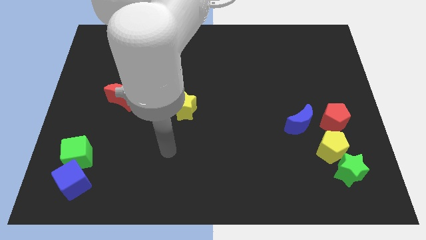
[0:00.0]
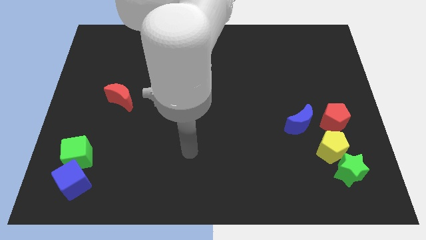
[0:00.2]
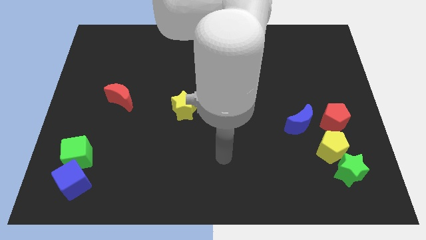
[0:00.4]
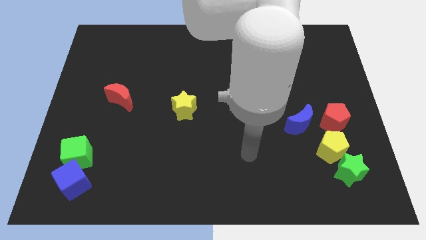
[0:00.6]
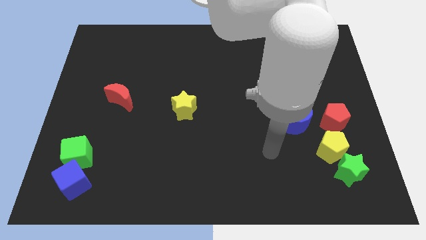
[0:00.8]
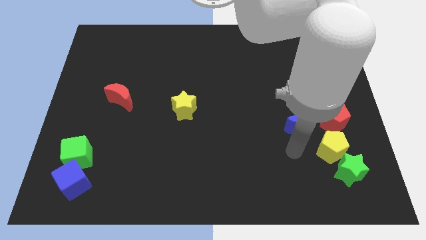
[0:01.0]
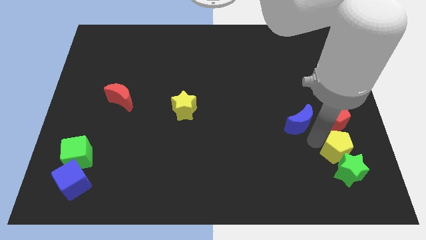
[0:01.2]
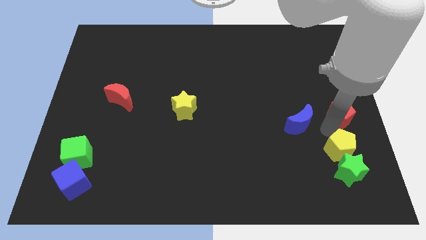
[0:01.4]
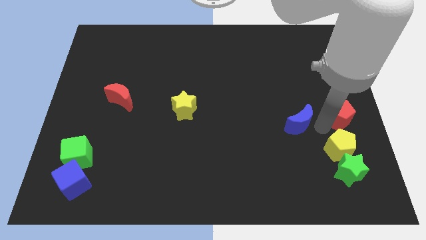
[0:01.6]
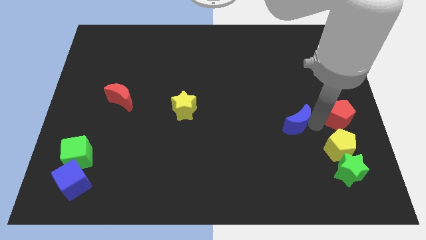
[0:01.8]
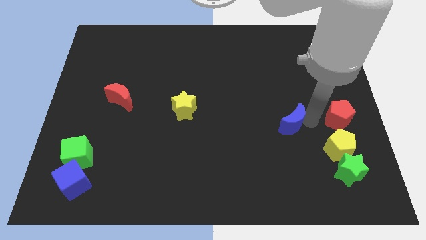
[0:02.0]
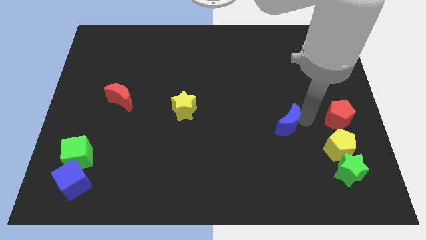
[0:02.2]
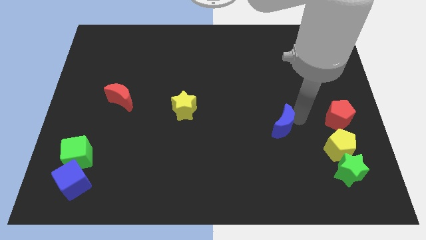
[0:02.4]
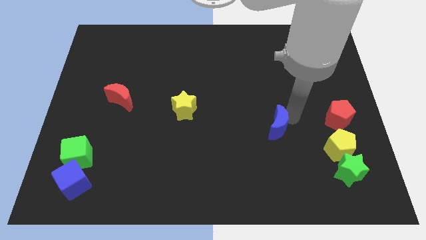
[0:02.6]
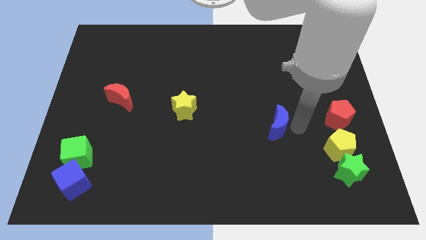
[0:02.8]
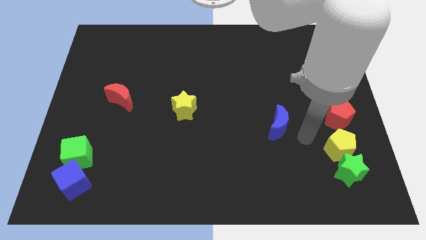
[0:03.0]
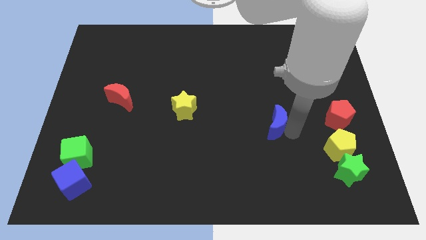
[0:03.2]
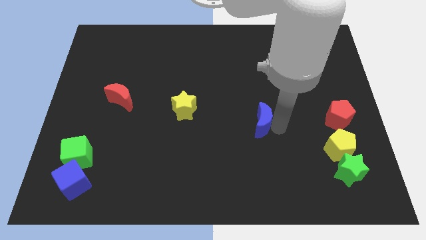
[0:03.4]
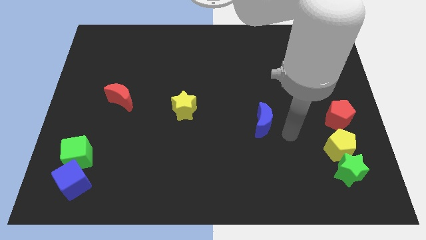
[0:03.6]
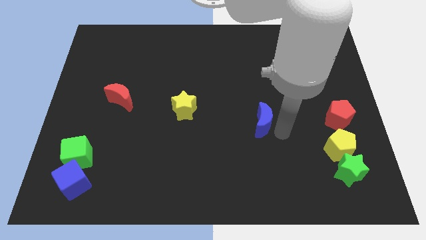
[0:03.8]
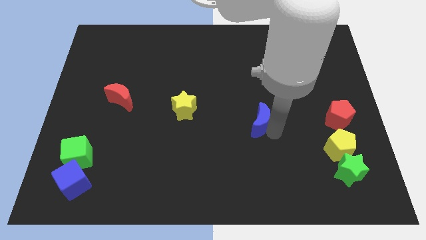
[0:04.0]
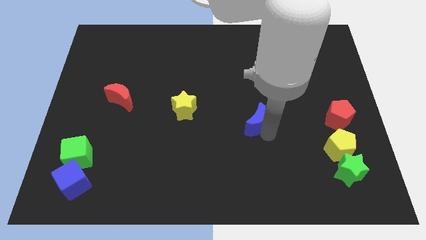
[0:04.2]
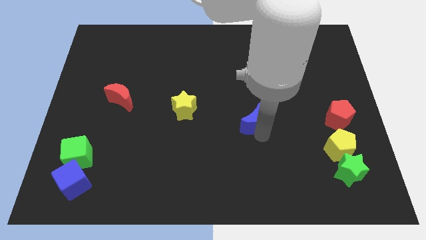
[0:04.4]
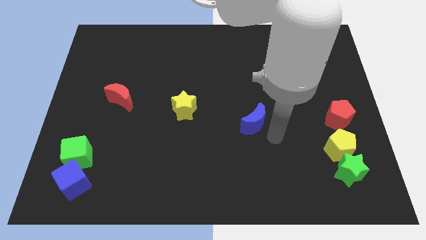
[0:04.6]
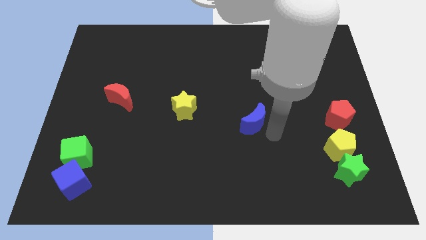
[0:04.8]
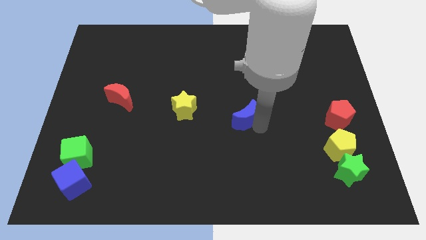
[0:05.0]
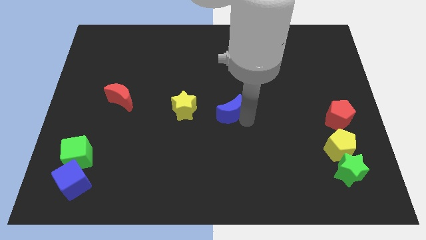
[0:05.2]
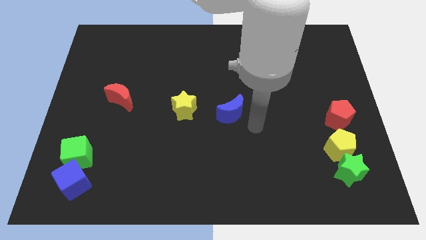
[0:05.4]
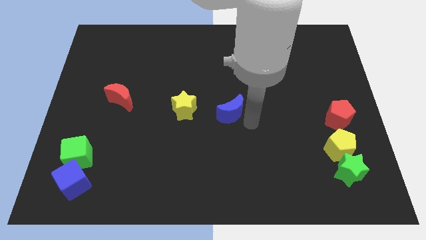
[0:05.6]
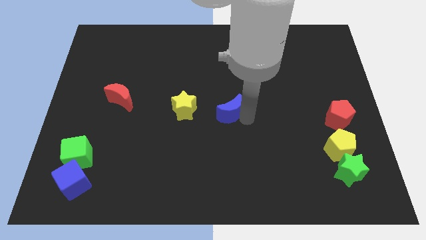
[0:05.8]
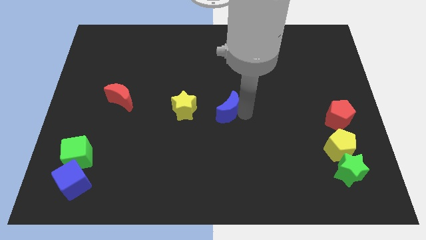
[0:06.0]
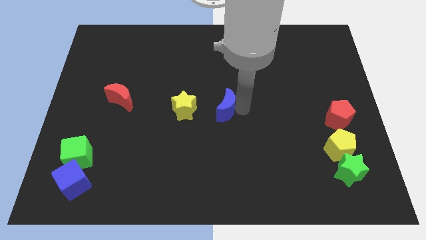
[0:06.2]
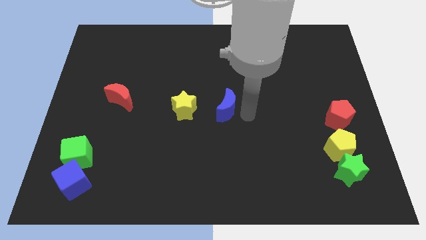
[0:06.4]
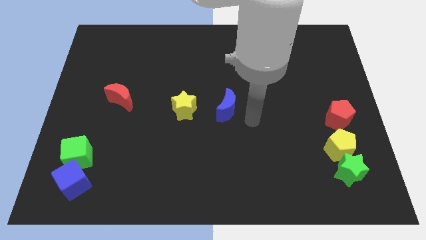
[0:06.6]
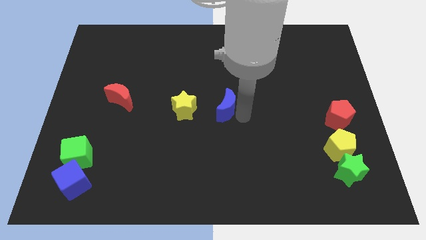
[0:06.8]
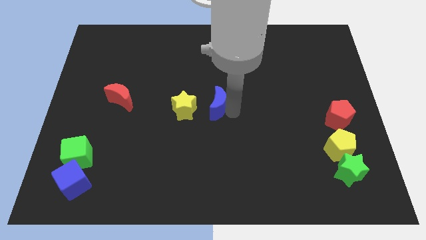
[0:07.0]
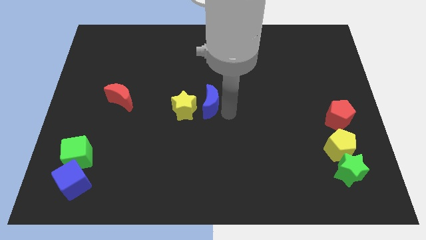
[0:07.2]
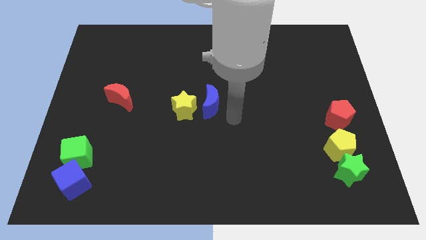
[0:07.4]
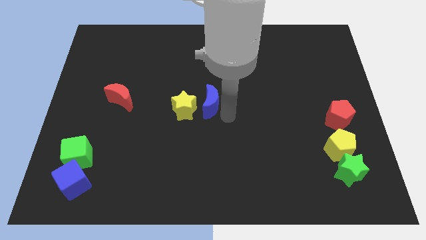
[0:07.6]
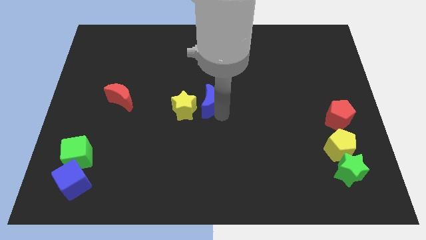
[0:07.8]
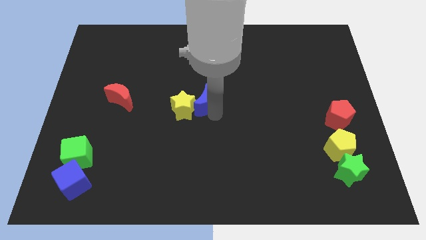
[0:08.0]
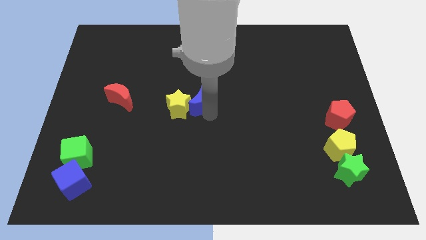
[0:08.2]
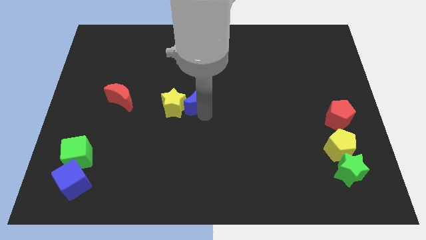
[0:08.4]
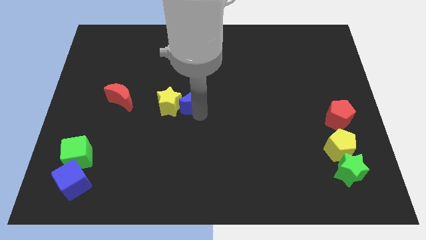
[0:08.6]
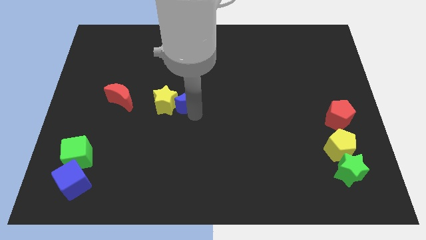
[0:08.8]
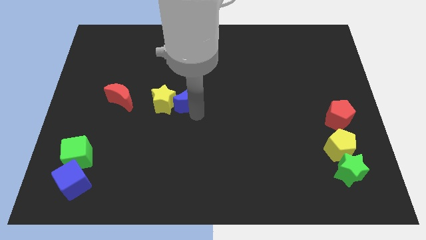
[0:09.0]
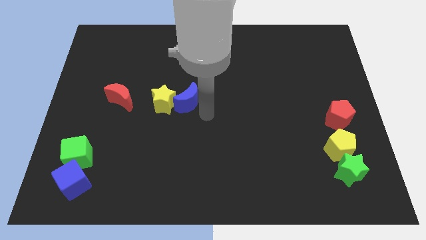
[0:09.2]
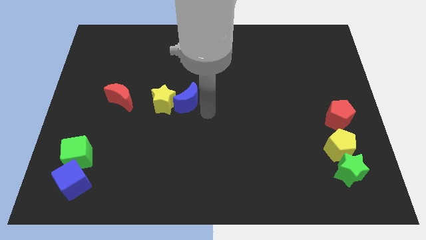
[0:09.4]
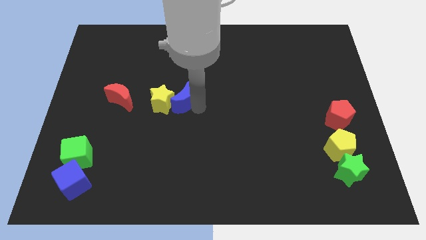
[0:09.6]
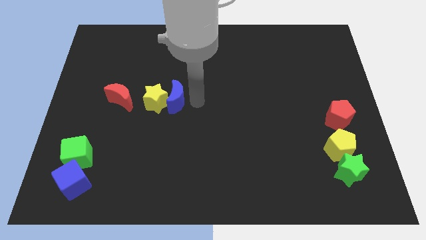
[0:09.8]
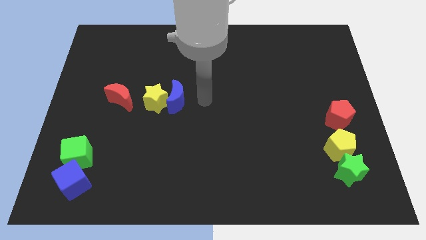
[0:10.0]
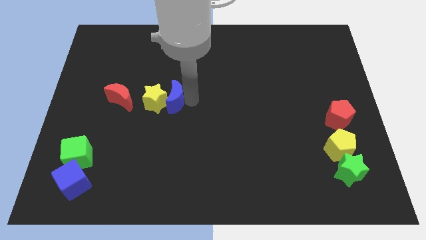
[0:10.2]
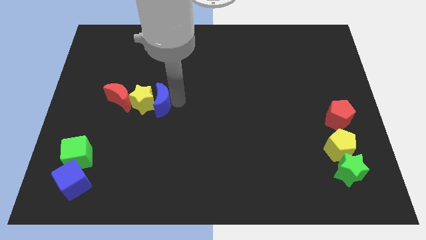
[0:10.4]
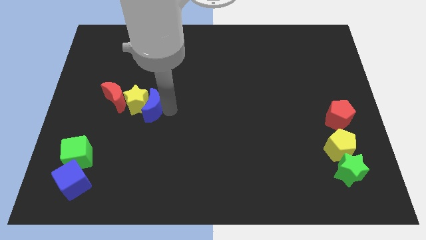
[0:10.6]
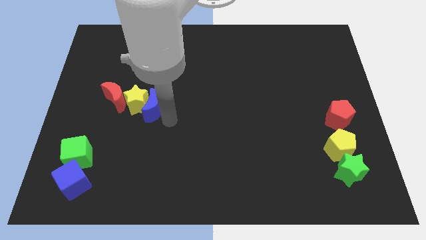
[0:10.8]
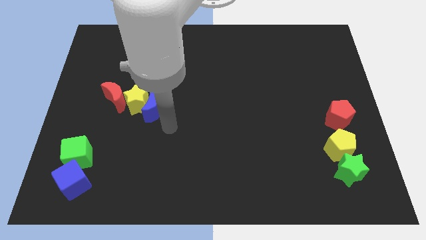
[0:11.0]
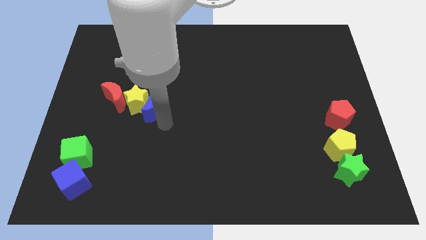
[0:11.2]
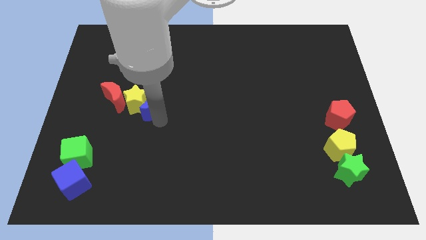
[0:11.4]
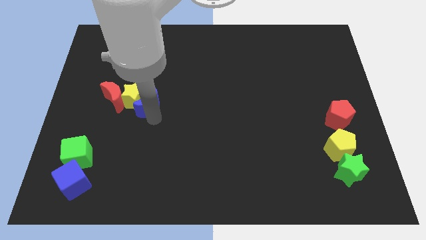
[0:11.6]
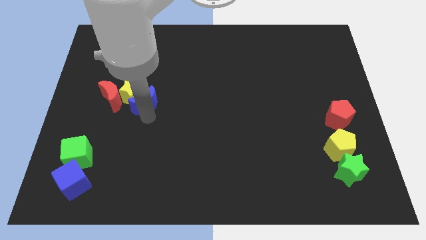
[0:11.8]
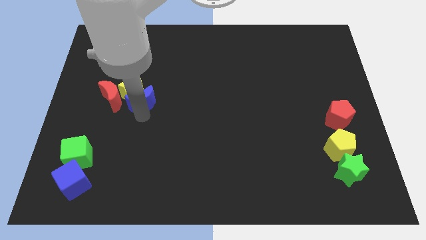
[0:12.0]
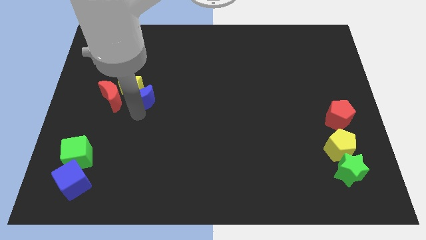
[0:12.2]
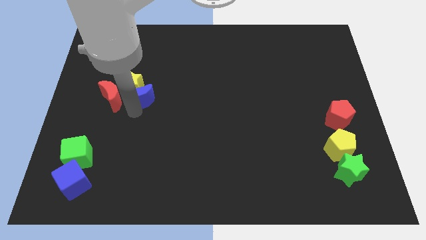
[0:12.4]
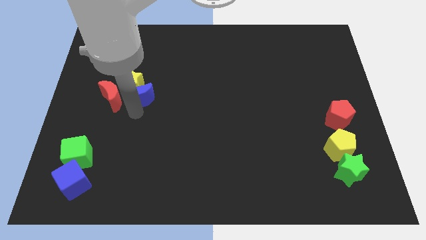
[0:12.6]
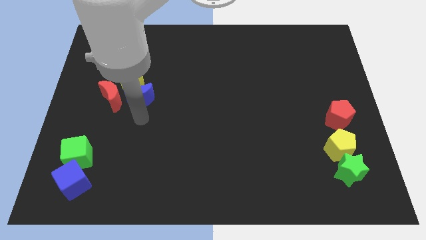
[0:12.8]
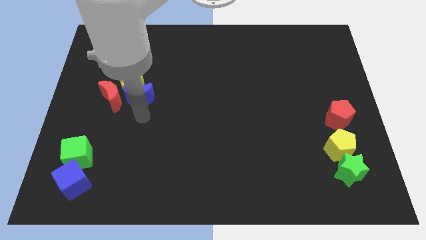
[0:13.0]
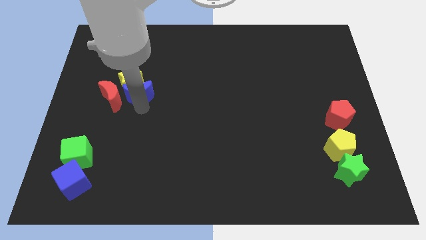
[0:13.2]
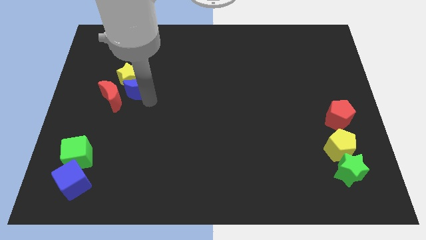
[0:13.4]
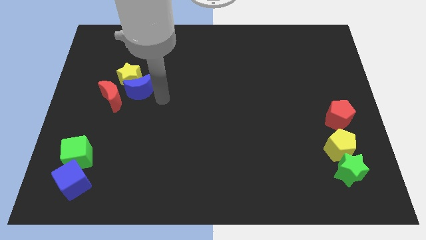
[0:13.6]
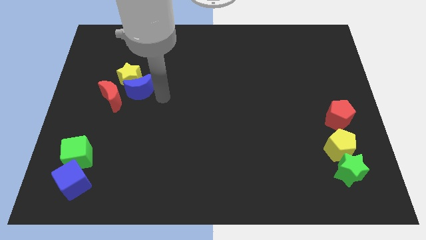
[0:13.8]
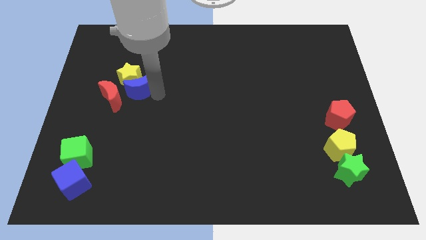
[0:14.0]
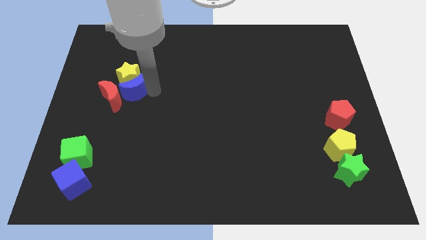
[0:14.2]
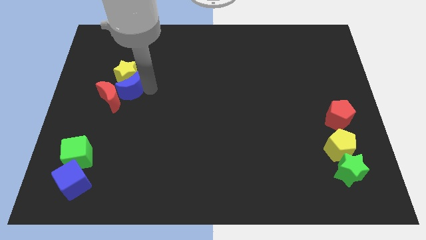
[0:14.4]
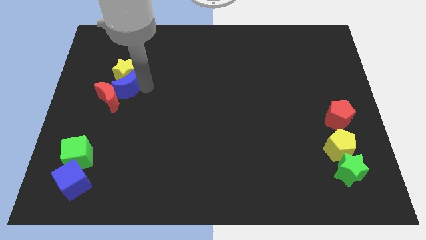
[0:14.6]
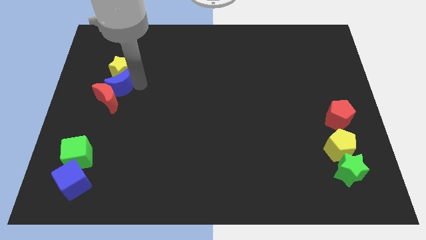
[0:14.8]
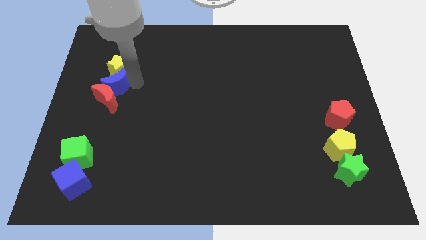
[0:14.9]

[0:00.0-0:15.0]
move the blue moon diagonally up and to the left of the red moon

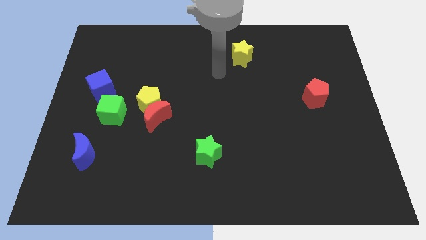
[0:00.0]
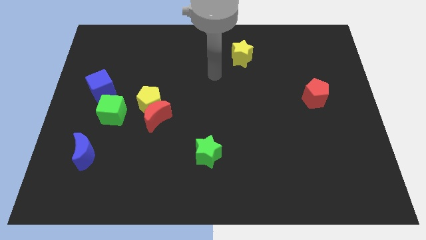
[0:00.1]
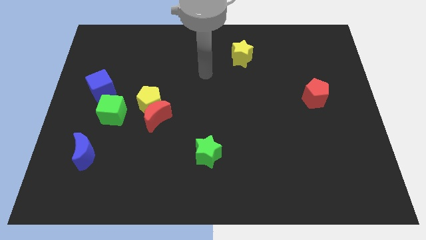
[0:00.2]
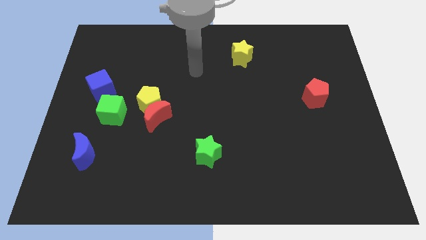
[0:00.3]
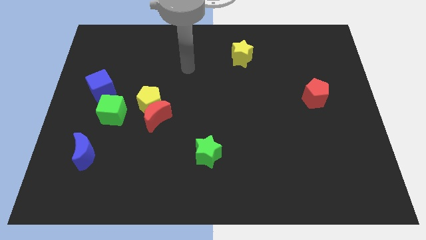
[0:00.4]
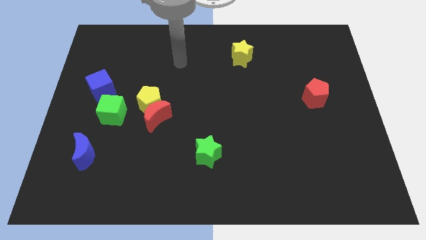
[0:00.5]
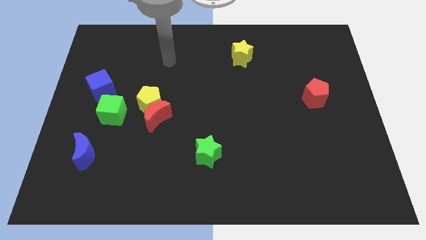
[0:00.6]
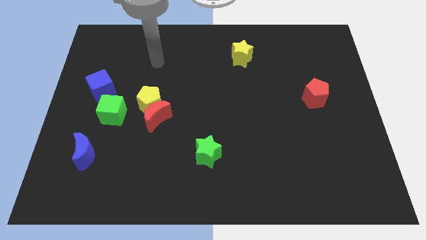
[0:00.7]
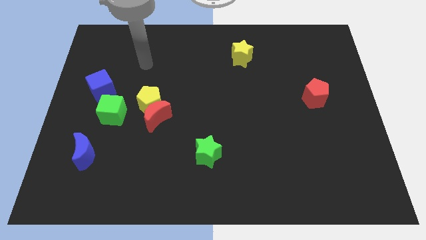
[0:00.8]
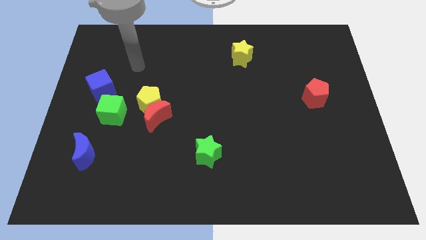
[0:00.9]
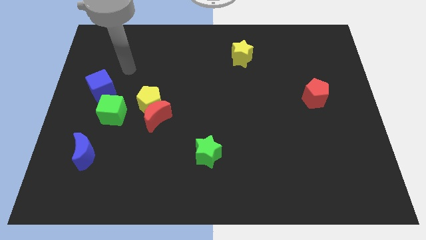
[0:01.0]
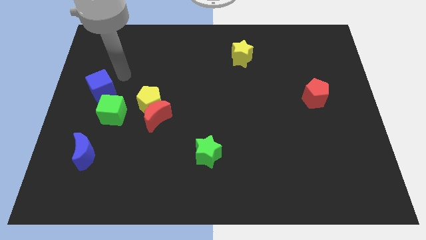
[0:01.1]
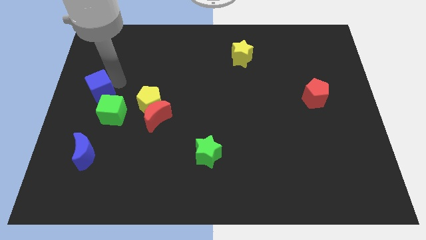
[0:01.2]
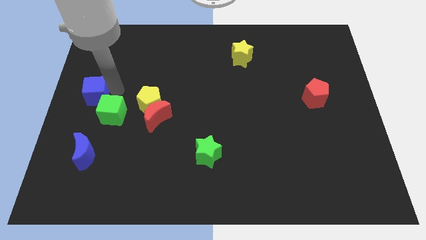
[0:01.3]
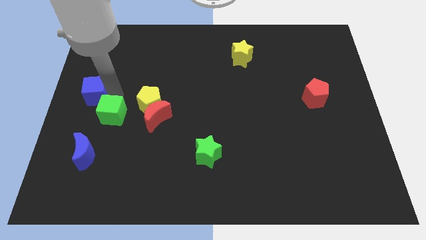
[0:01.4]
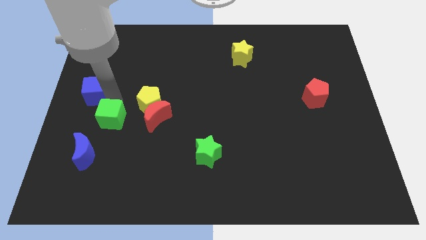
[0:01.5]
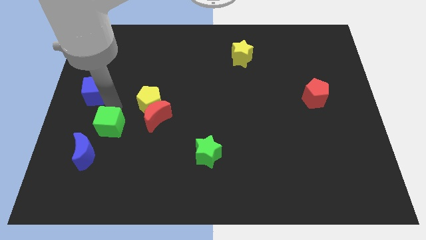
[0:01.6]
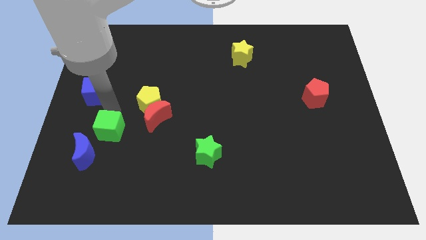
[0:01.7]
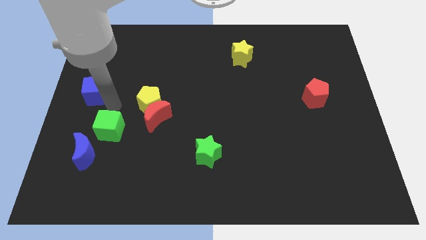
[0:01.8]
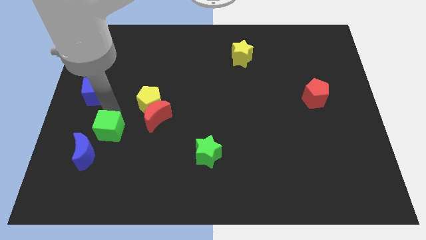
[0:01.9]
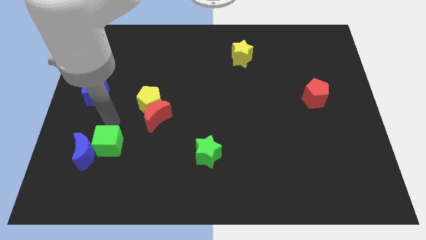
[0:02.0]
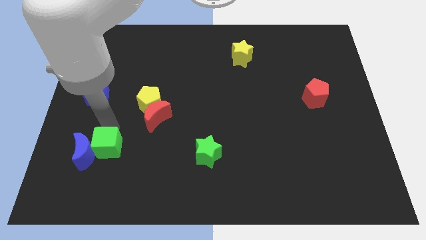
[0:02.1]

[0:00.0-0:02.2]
move the green cube to the bottom right of the blue moon
